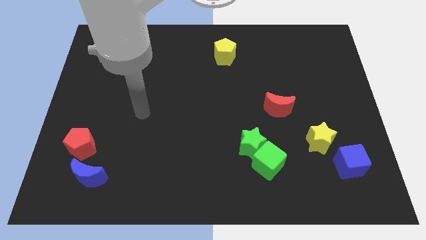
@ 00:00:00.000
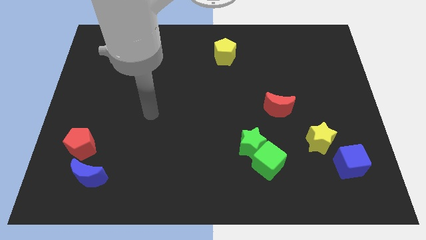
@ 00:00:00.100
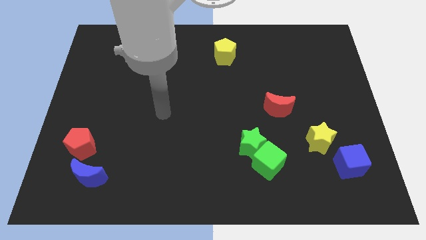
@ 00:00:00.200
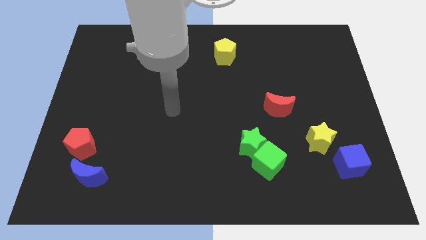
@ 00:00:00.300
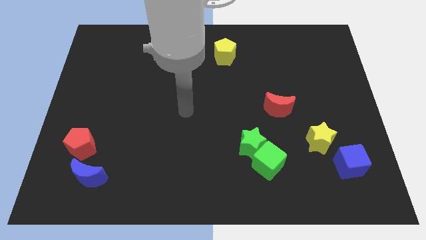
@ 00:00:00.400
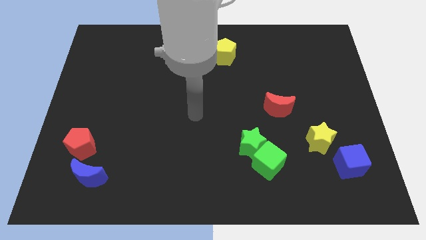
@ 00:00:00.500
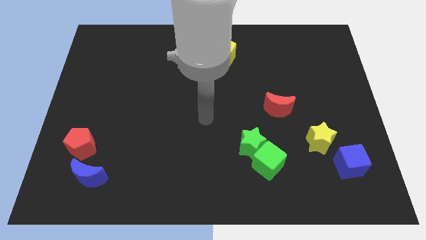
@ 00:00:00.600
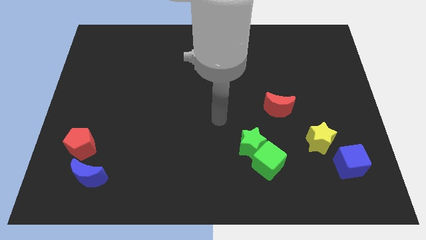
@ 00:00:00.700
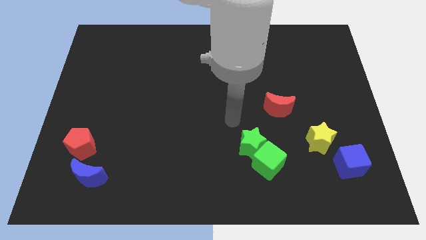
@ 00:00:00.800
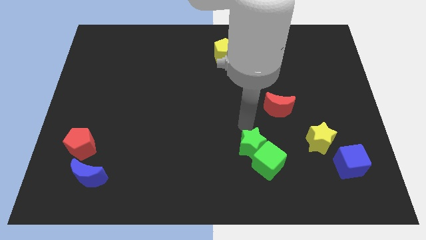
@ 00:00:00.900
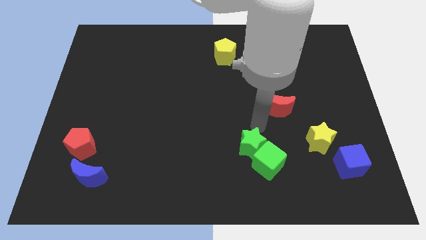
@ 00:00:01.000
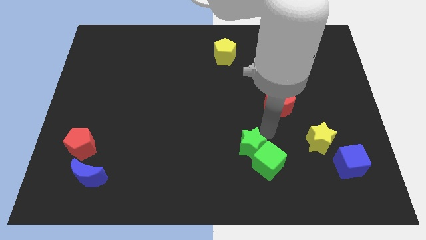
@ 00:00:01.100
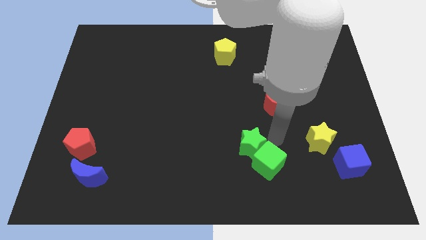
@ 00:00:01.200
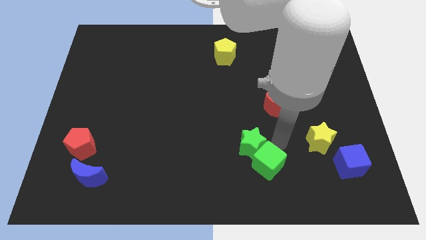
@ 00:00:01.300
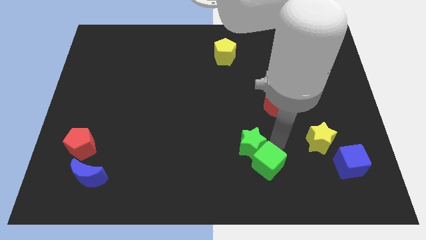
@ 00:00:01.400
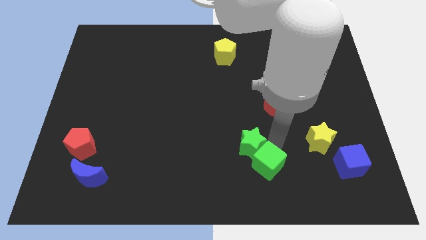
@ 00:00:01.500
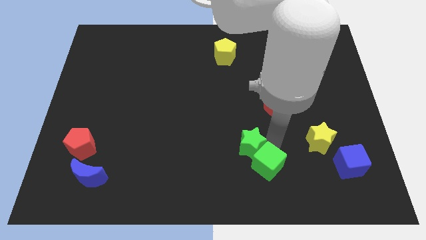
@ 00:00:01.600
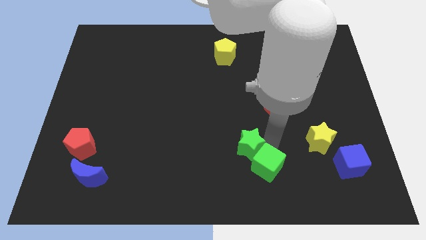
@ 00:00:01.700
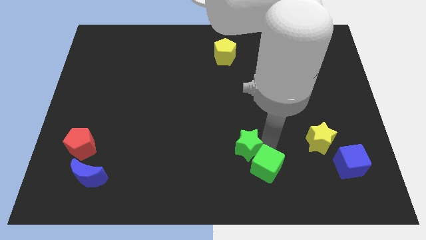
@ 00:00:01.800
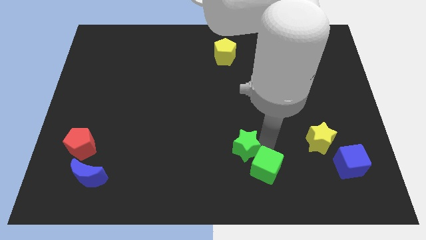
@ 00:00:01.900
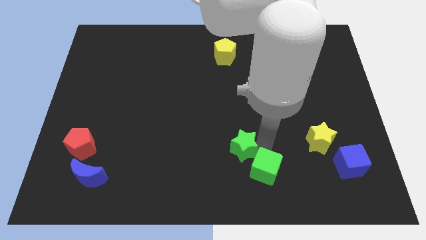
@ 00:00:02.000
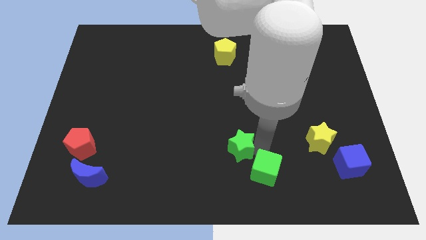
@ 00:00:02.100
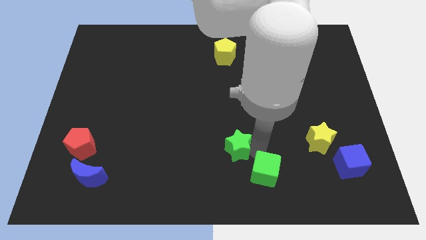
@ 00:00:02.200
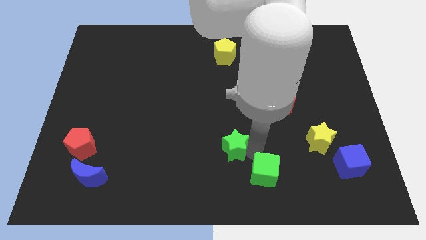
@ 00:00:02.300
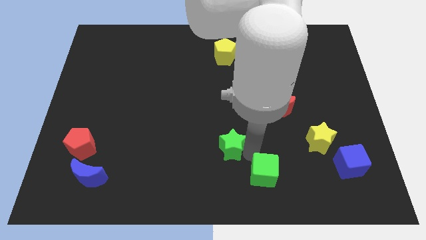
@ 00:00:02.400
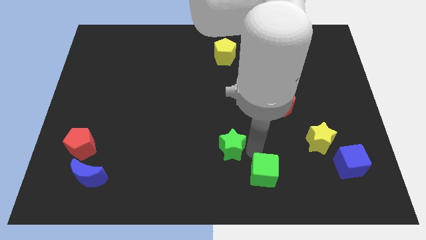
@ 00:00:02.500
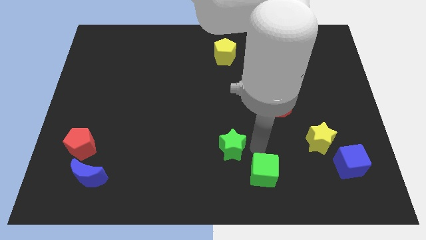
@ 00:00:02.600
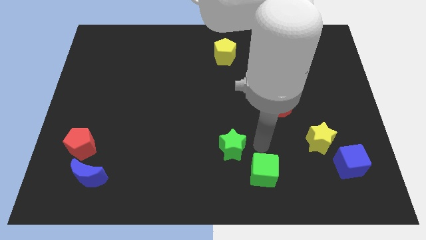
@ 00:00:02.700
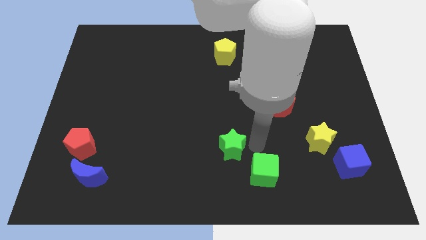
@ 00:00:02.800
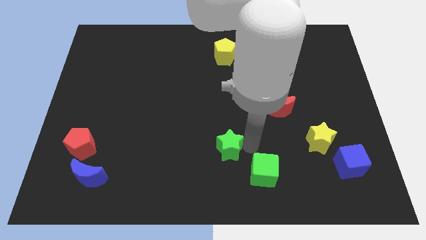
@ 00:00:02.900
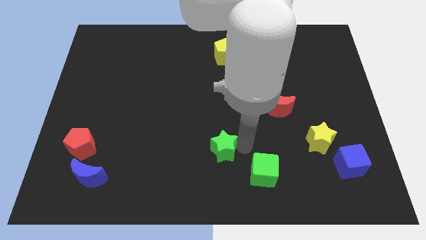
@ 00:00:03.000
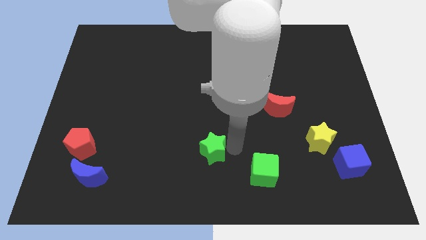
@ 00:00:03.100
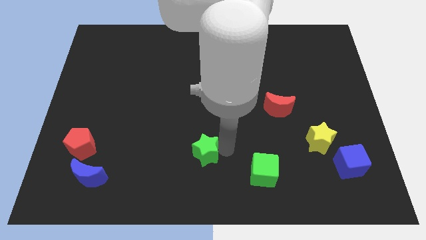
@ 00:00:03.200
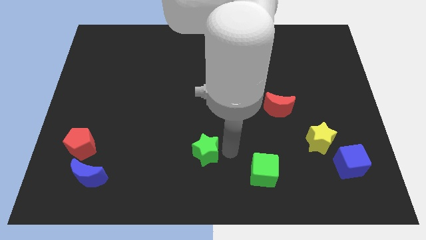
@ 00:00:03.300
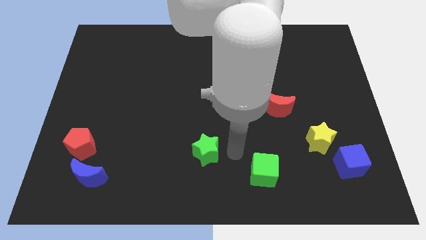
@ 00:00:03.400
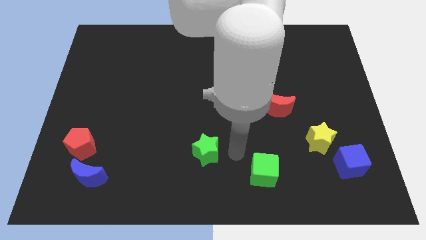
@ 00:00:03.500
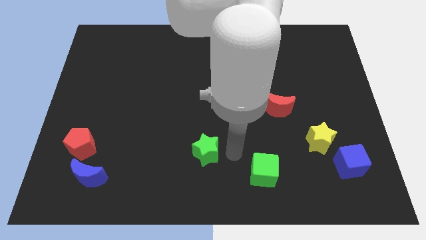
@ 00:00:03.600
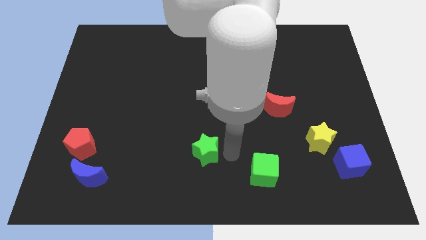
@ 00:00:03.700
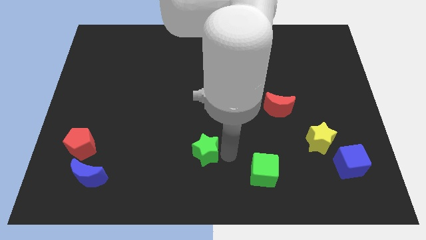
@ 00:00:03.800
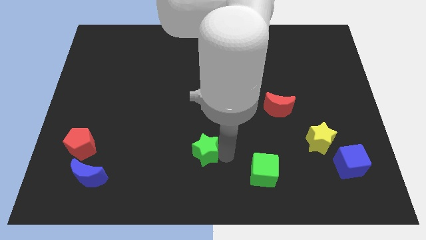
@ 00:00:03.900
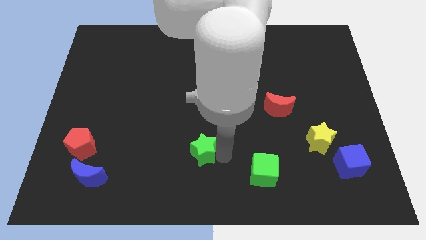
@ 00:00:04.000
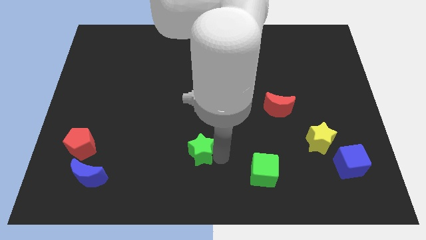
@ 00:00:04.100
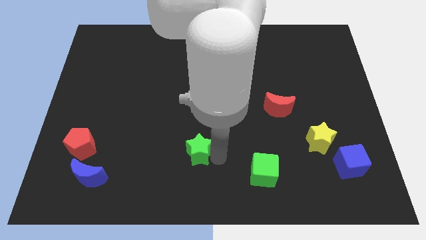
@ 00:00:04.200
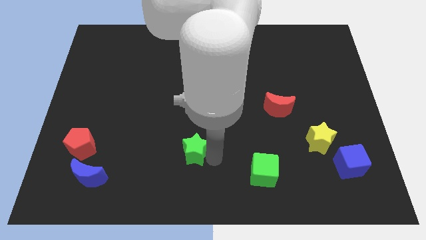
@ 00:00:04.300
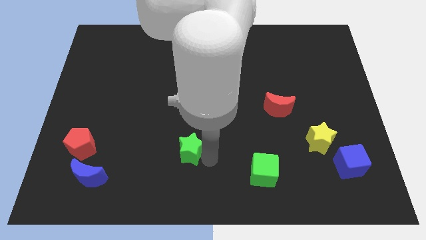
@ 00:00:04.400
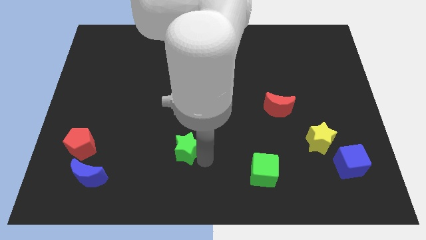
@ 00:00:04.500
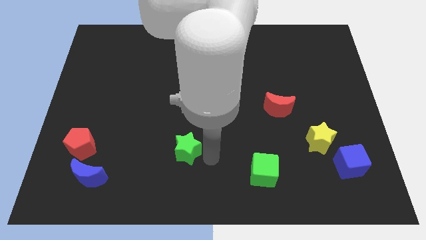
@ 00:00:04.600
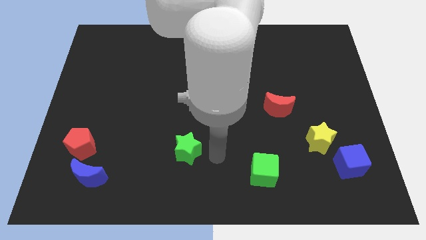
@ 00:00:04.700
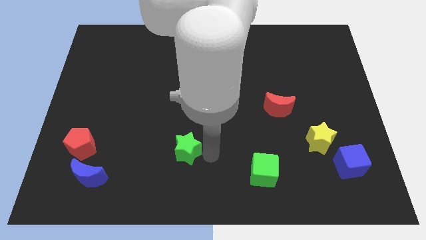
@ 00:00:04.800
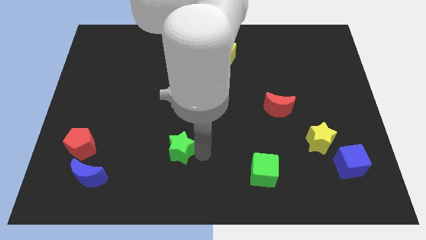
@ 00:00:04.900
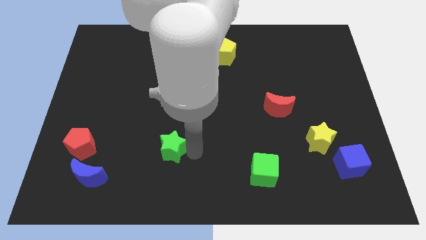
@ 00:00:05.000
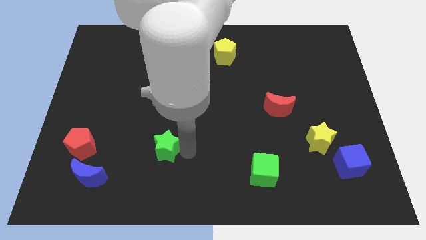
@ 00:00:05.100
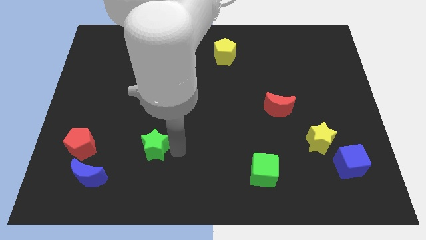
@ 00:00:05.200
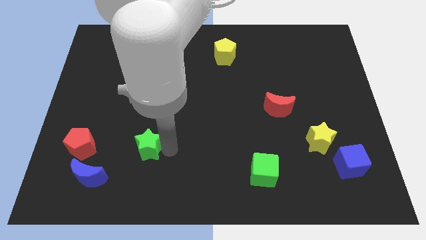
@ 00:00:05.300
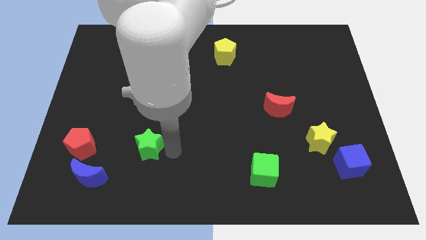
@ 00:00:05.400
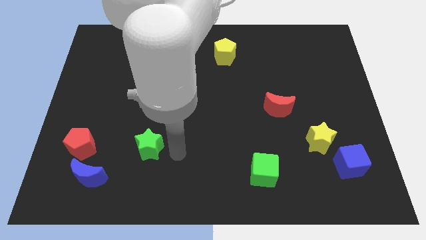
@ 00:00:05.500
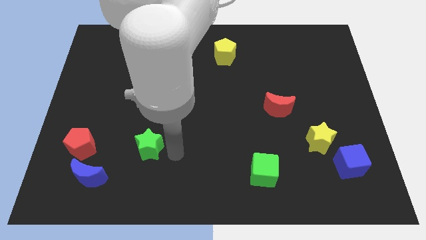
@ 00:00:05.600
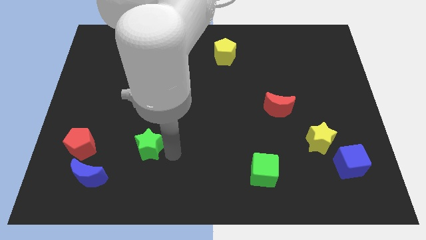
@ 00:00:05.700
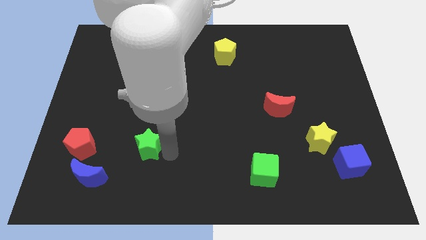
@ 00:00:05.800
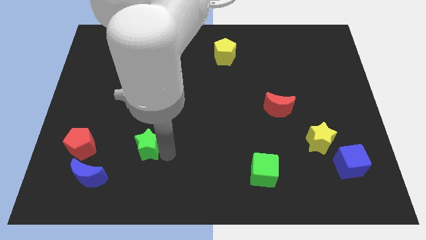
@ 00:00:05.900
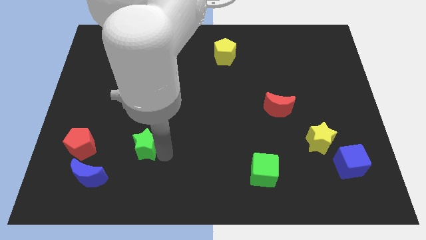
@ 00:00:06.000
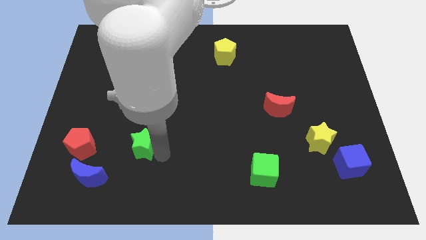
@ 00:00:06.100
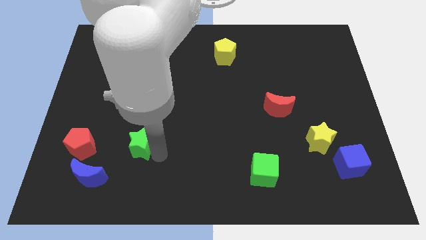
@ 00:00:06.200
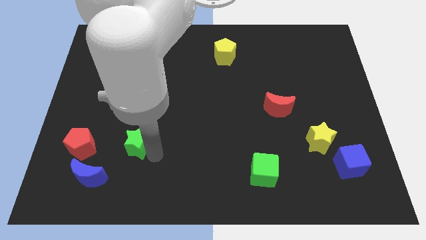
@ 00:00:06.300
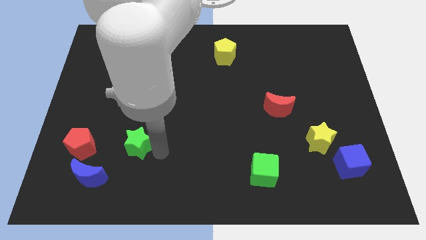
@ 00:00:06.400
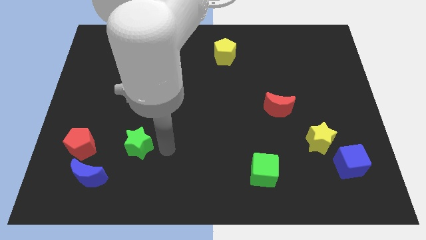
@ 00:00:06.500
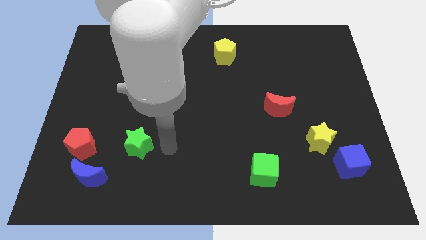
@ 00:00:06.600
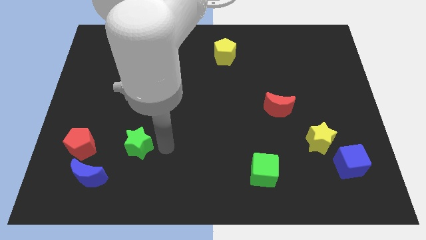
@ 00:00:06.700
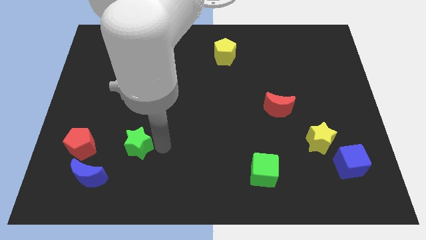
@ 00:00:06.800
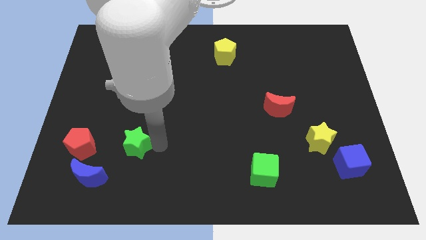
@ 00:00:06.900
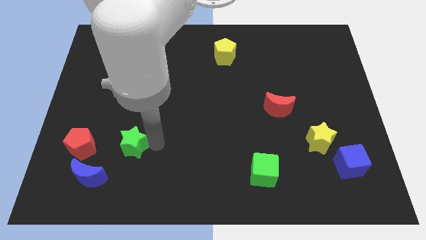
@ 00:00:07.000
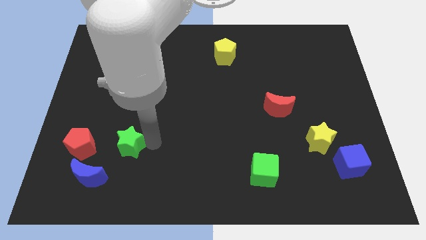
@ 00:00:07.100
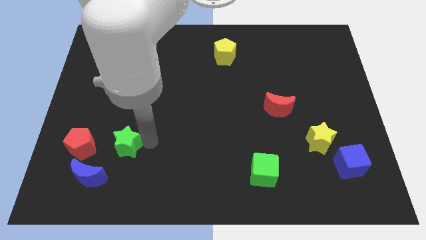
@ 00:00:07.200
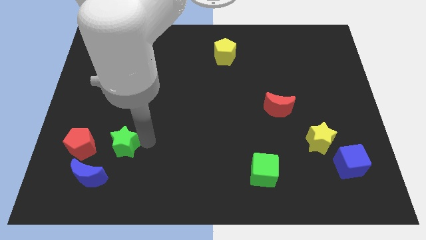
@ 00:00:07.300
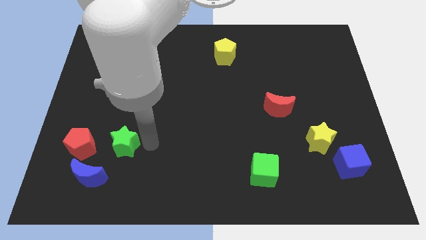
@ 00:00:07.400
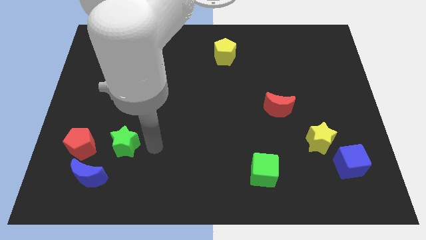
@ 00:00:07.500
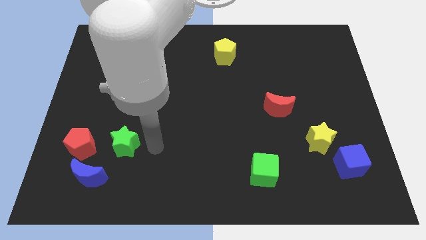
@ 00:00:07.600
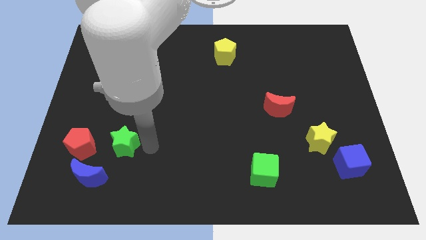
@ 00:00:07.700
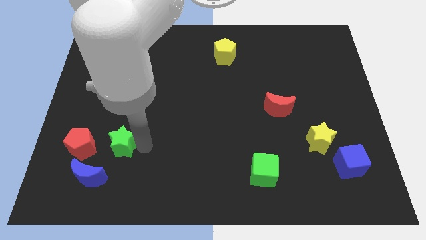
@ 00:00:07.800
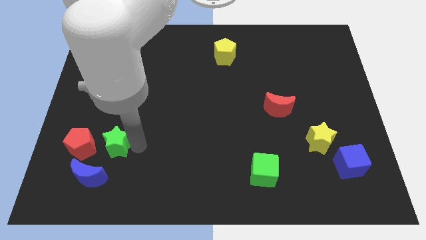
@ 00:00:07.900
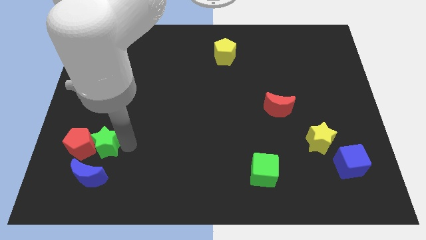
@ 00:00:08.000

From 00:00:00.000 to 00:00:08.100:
move the green star next to the red pentagon
